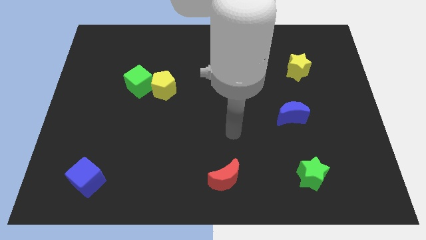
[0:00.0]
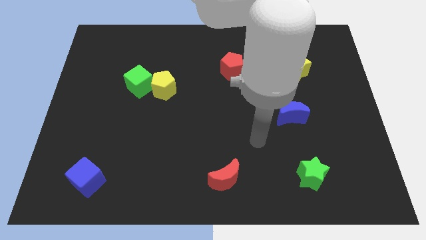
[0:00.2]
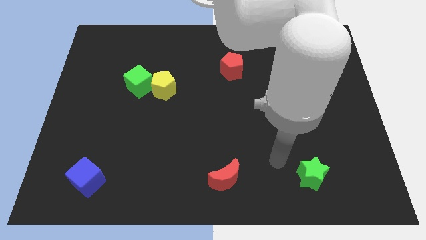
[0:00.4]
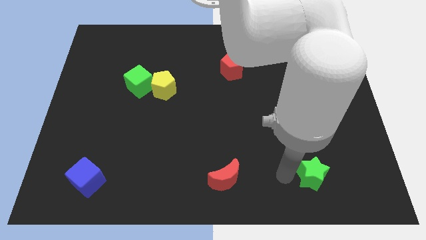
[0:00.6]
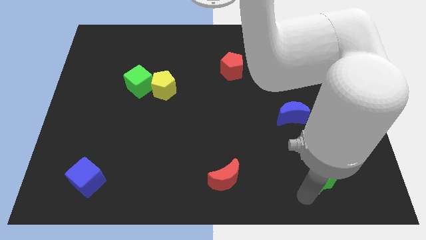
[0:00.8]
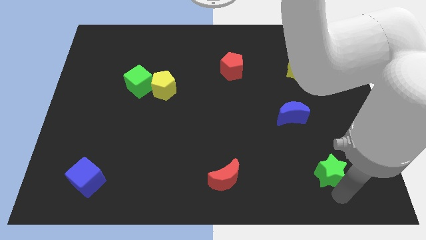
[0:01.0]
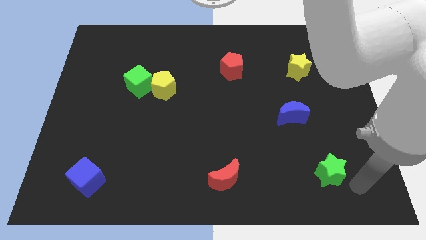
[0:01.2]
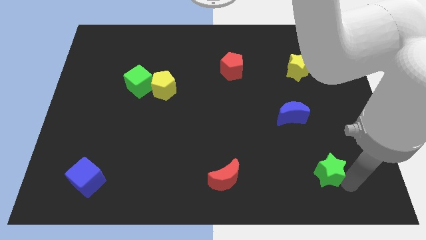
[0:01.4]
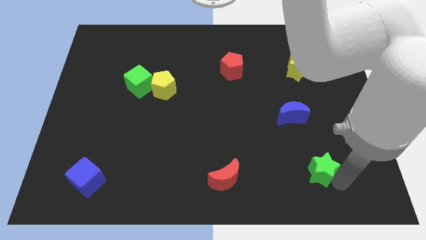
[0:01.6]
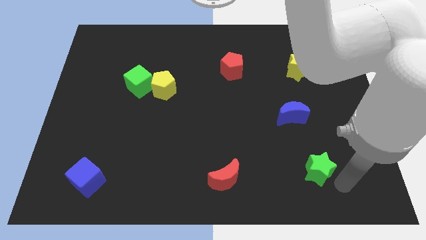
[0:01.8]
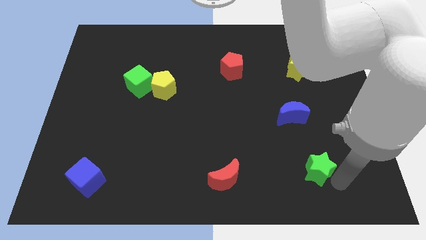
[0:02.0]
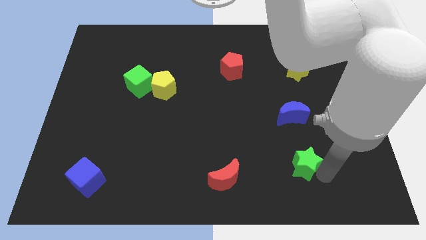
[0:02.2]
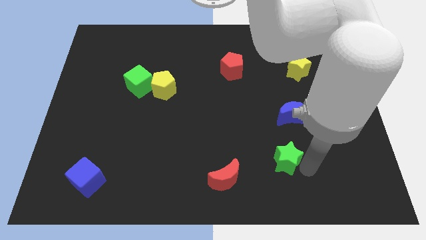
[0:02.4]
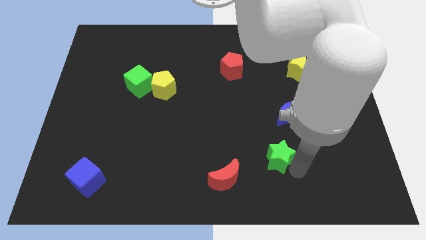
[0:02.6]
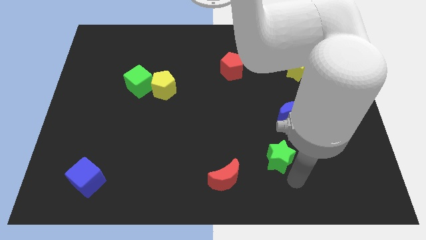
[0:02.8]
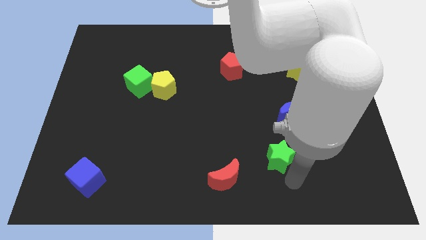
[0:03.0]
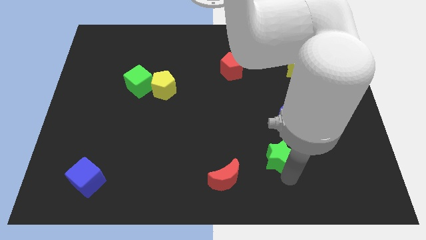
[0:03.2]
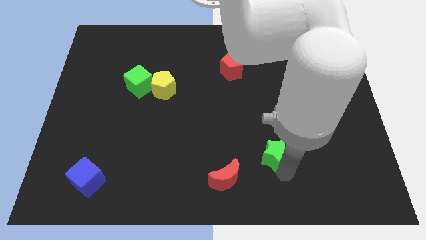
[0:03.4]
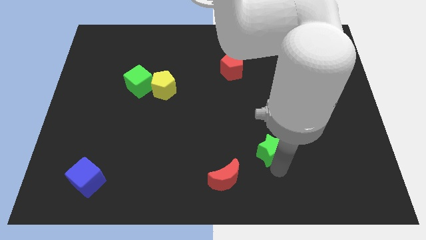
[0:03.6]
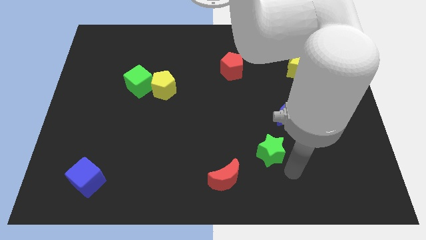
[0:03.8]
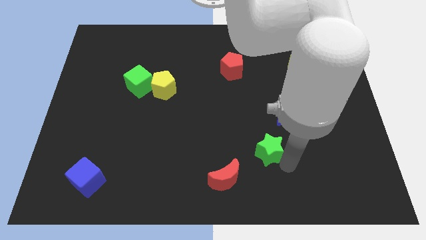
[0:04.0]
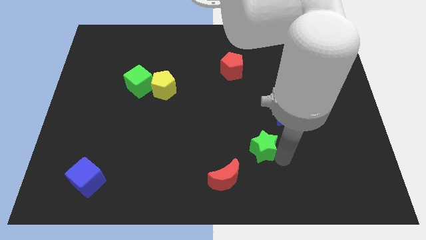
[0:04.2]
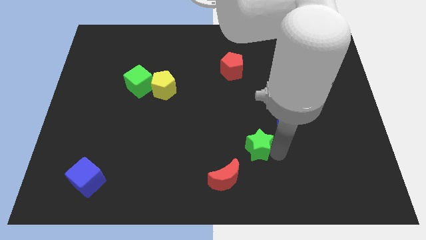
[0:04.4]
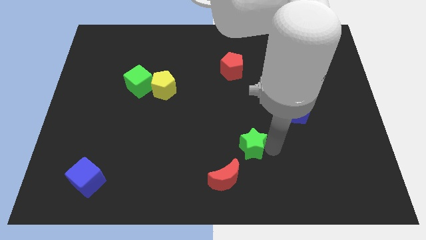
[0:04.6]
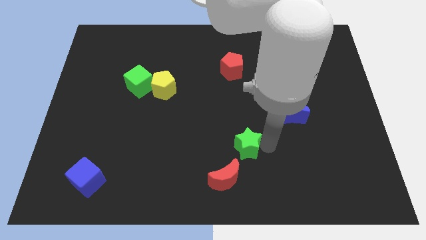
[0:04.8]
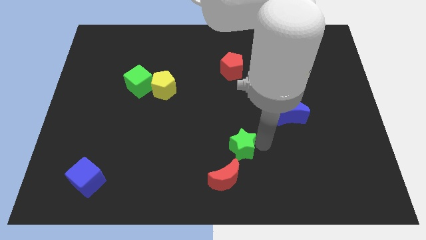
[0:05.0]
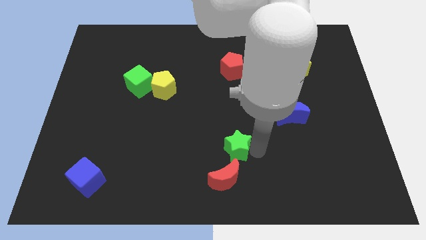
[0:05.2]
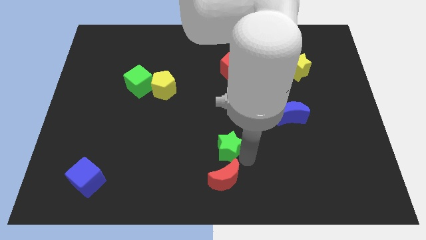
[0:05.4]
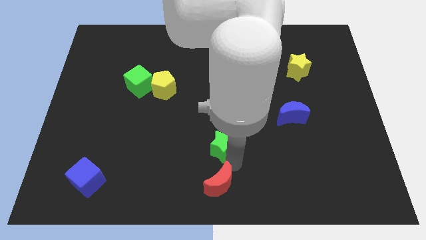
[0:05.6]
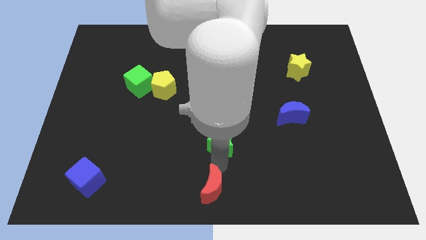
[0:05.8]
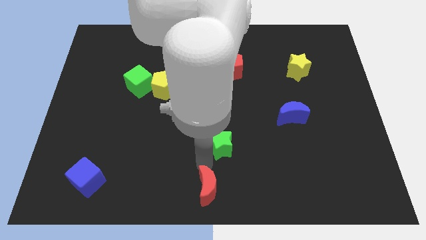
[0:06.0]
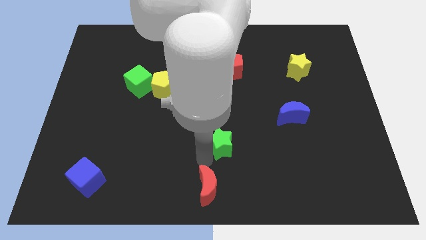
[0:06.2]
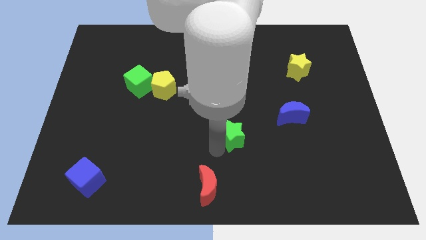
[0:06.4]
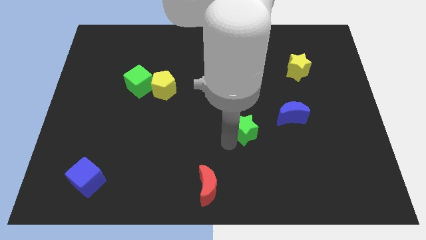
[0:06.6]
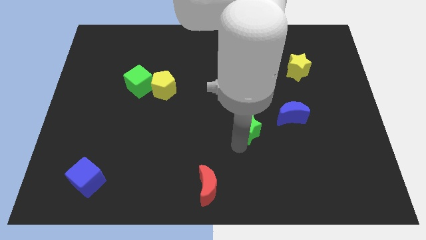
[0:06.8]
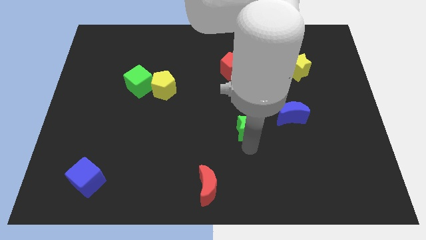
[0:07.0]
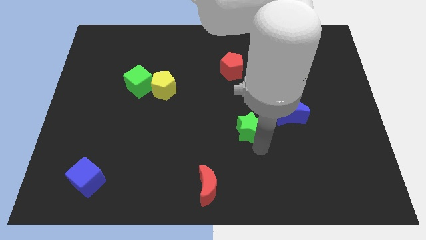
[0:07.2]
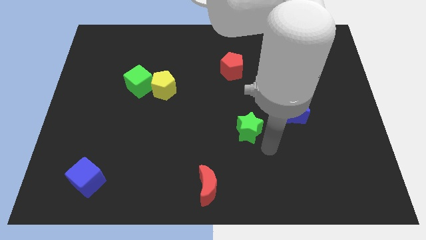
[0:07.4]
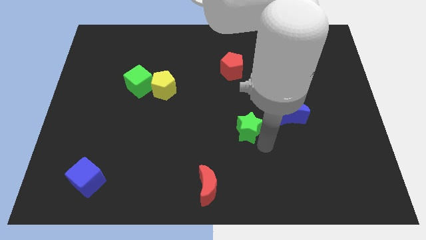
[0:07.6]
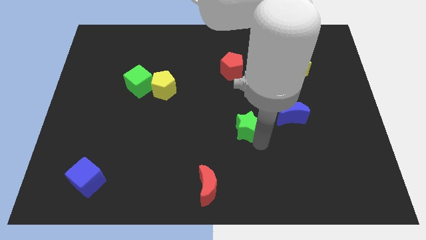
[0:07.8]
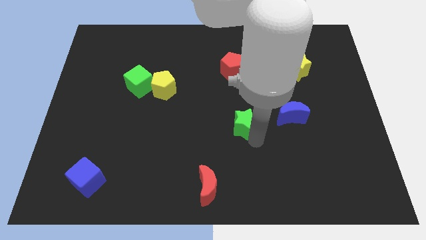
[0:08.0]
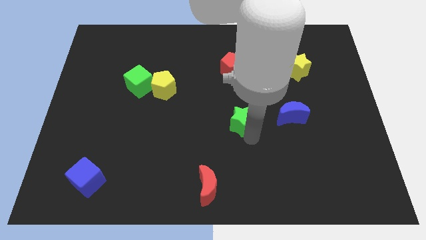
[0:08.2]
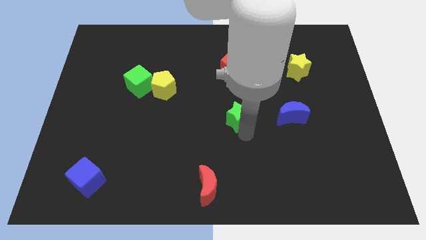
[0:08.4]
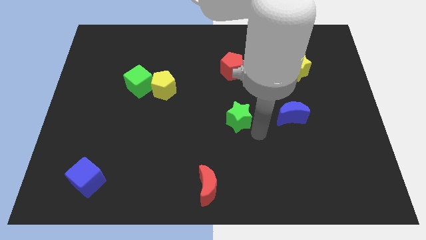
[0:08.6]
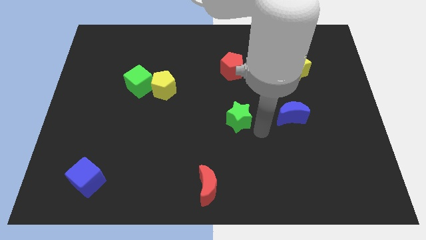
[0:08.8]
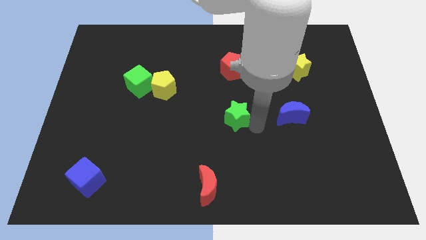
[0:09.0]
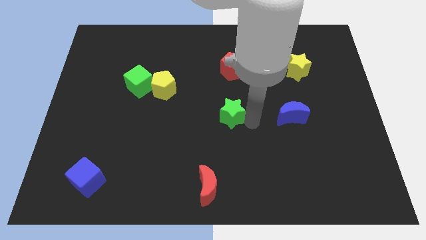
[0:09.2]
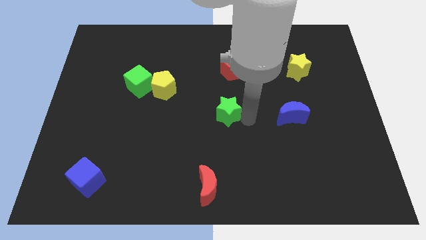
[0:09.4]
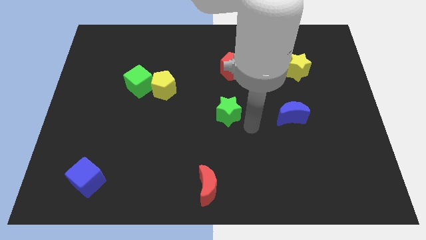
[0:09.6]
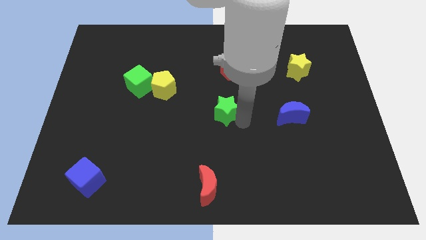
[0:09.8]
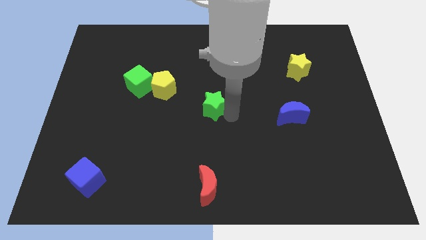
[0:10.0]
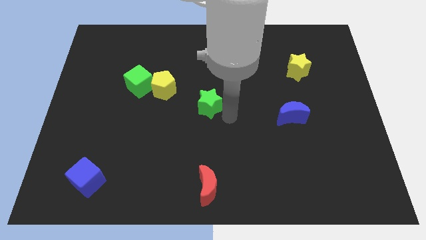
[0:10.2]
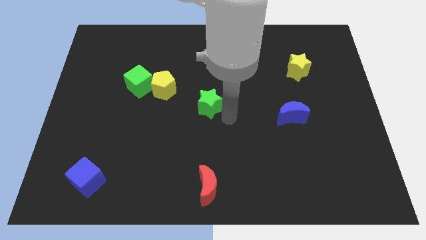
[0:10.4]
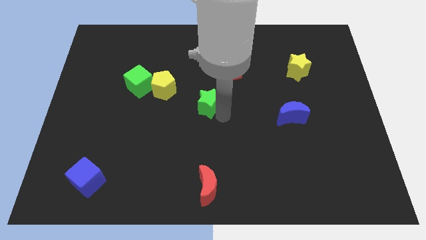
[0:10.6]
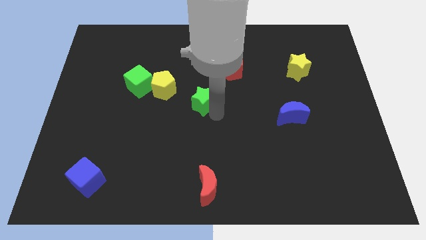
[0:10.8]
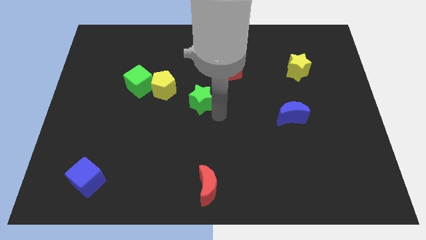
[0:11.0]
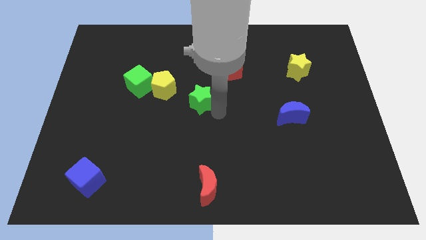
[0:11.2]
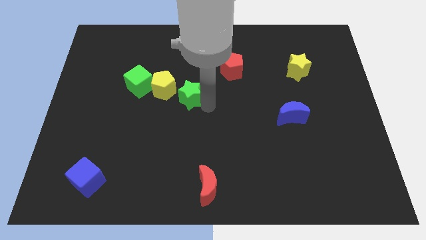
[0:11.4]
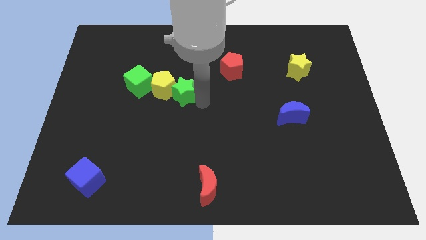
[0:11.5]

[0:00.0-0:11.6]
slide the green star towards the yellow pentagon

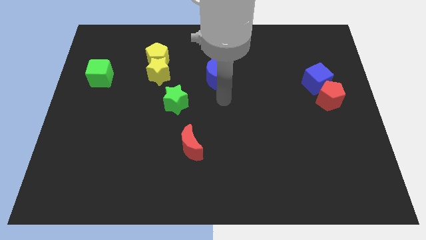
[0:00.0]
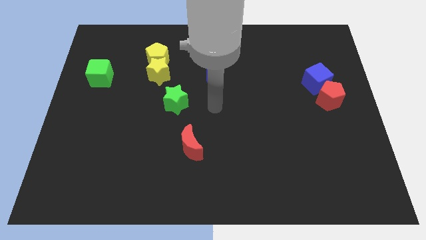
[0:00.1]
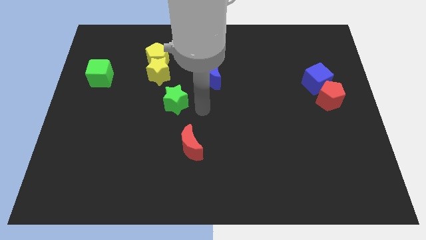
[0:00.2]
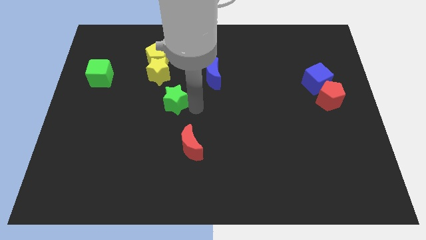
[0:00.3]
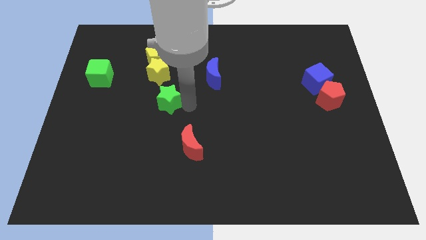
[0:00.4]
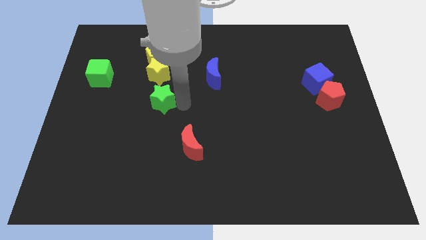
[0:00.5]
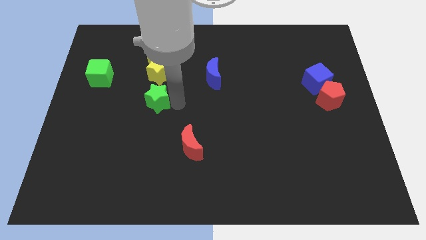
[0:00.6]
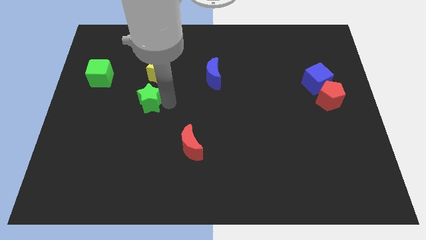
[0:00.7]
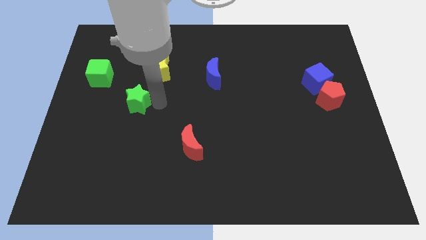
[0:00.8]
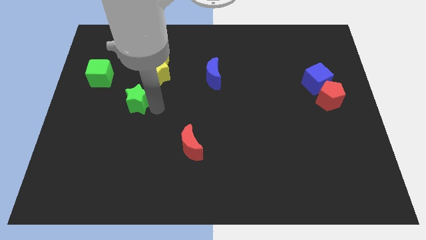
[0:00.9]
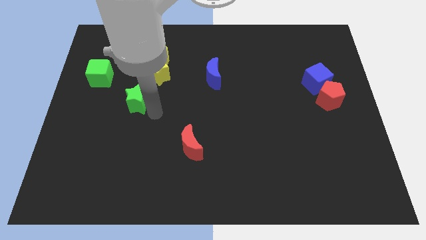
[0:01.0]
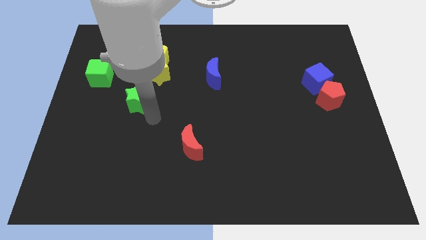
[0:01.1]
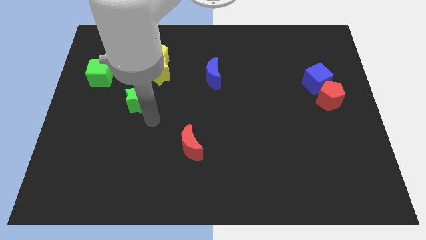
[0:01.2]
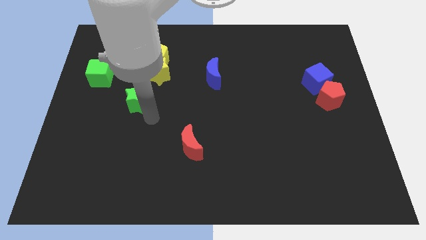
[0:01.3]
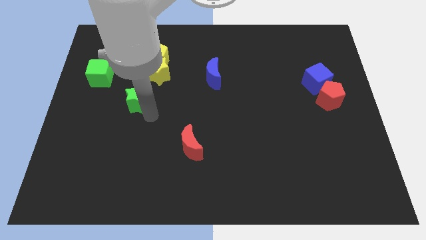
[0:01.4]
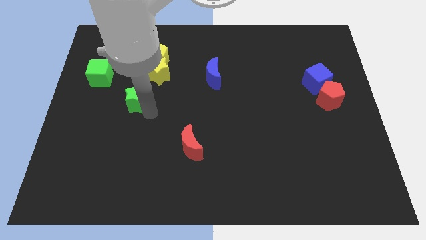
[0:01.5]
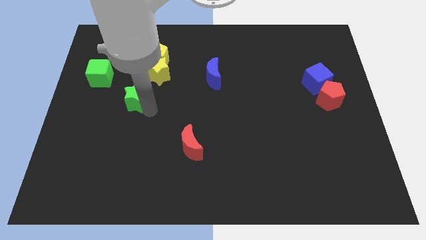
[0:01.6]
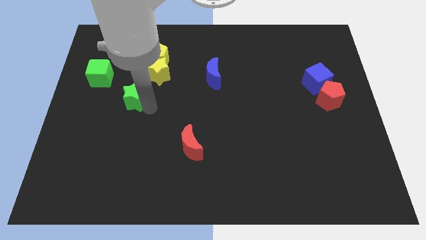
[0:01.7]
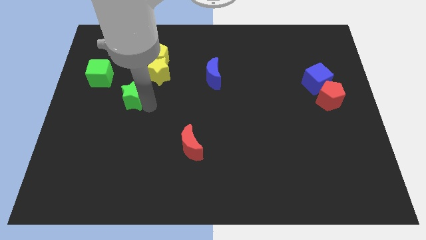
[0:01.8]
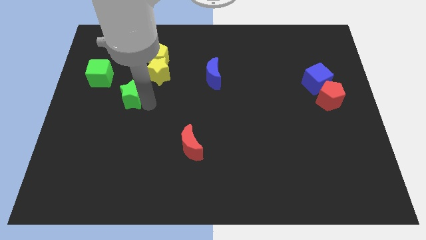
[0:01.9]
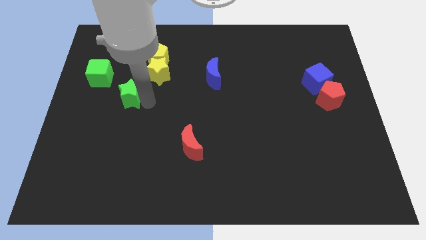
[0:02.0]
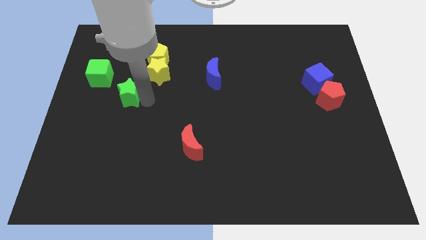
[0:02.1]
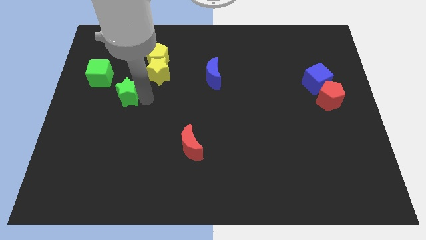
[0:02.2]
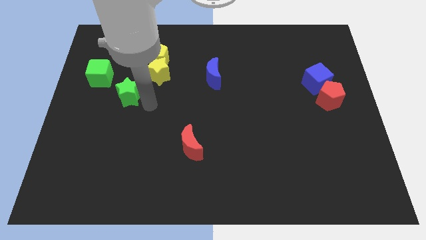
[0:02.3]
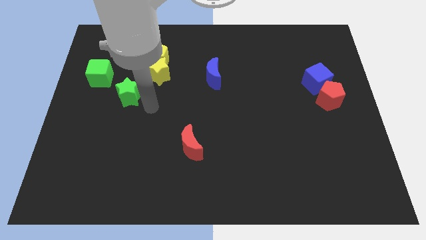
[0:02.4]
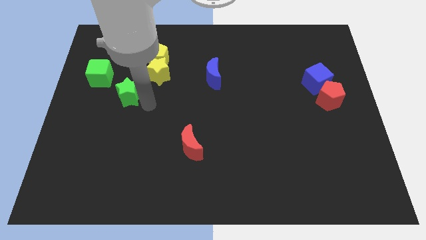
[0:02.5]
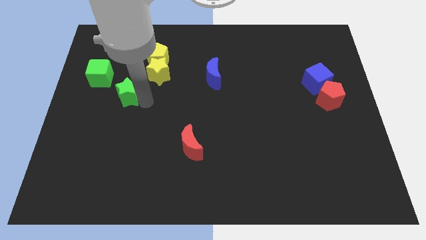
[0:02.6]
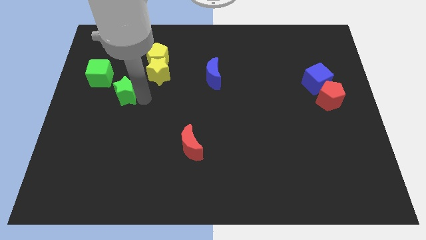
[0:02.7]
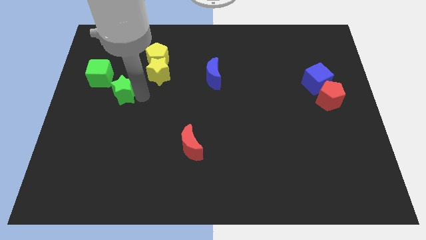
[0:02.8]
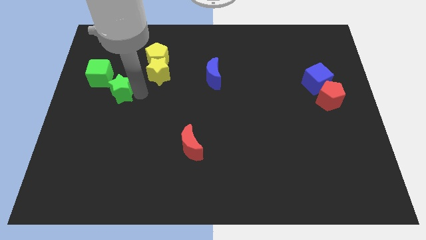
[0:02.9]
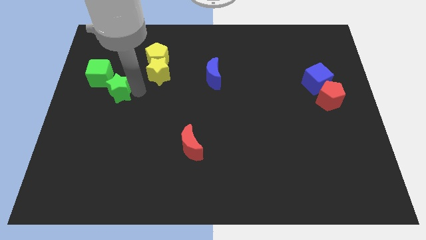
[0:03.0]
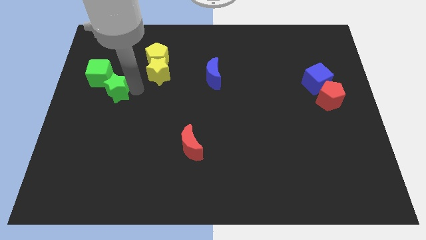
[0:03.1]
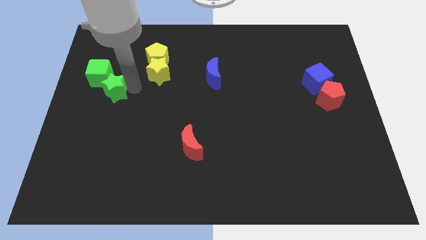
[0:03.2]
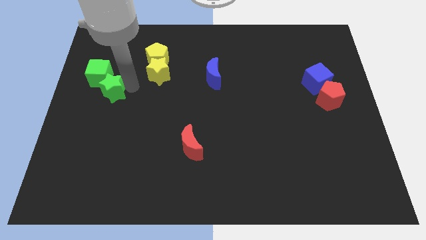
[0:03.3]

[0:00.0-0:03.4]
slide the green star close to the green cube
